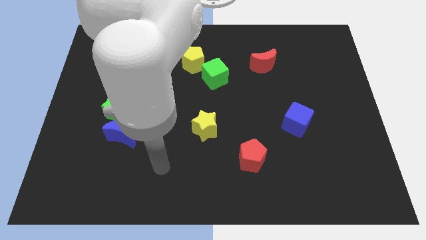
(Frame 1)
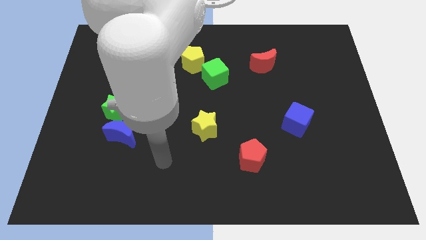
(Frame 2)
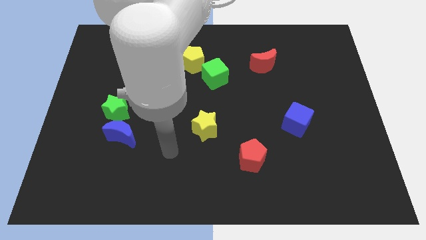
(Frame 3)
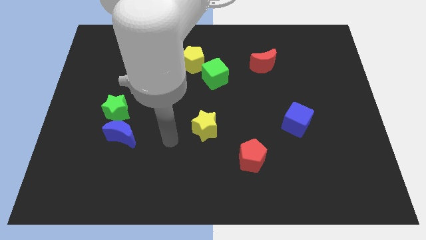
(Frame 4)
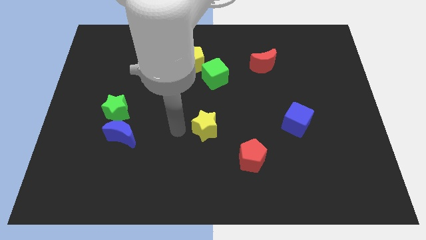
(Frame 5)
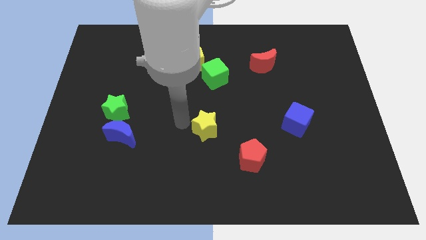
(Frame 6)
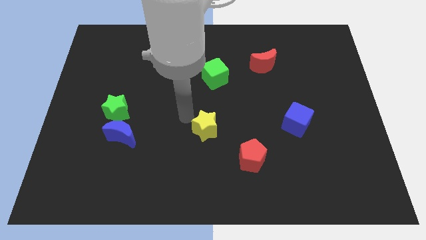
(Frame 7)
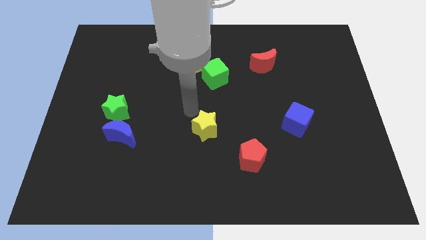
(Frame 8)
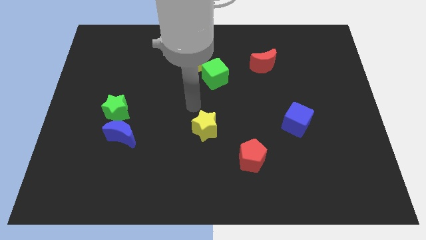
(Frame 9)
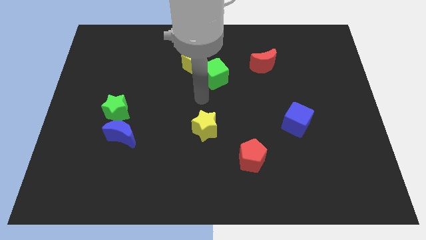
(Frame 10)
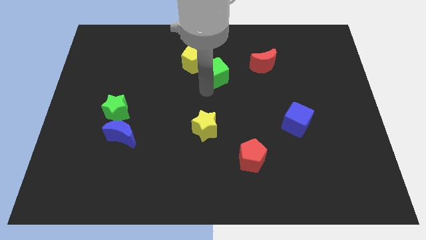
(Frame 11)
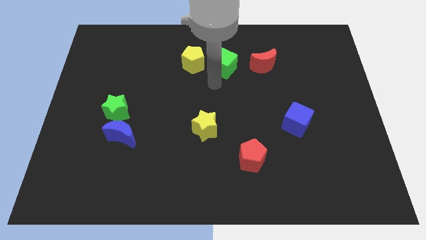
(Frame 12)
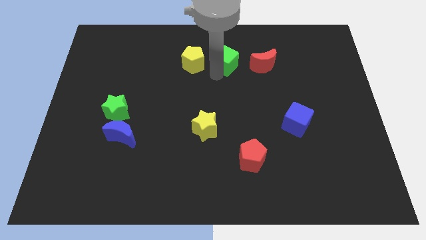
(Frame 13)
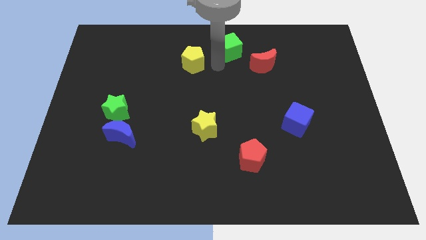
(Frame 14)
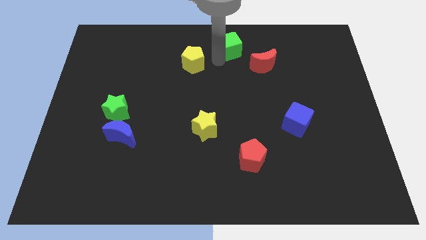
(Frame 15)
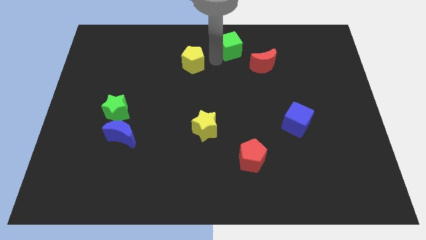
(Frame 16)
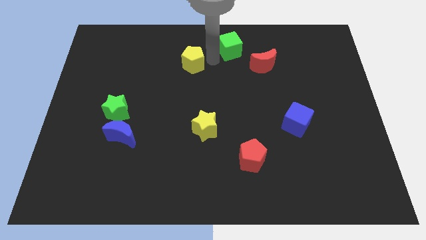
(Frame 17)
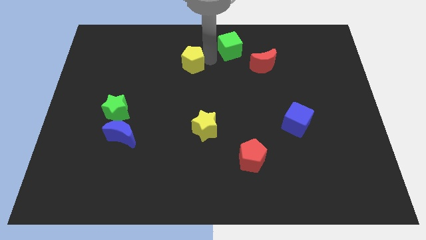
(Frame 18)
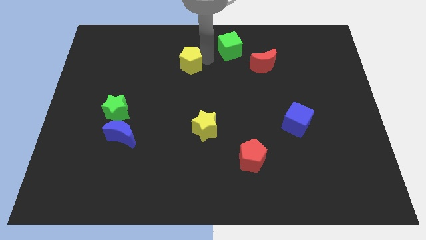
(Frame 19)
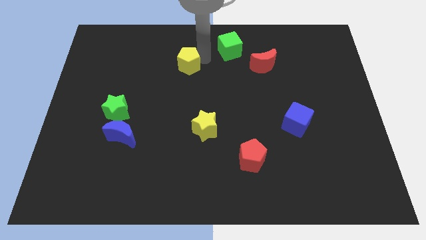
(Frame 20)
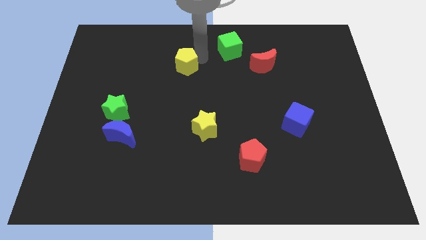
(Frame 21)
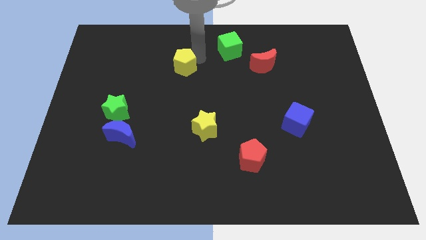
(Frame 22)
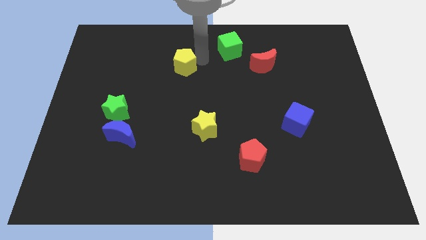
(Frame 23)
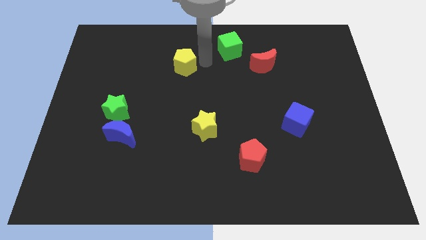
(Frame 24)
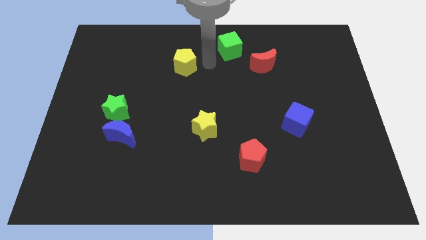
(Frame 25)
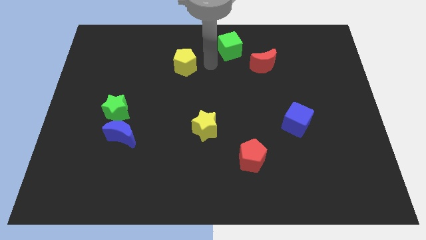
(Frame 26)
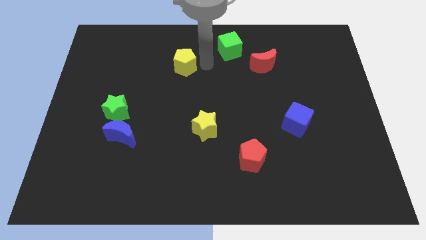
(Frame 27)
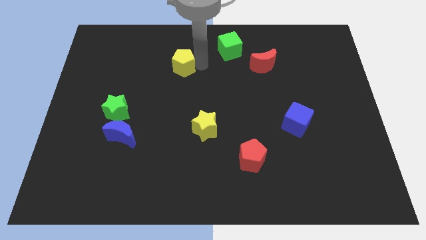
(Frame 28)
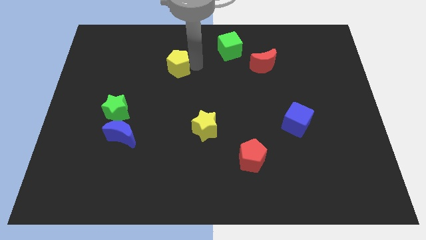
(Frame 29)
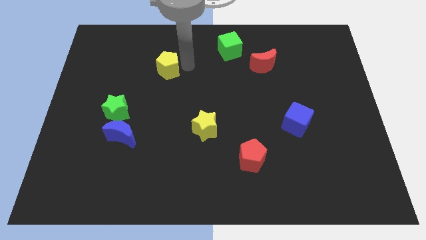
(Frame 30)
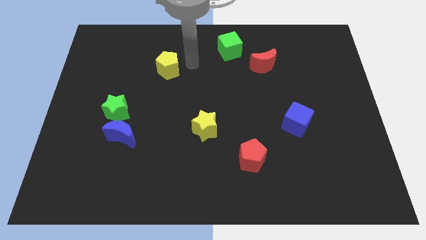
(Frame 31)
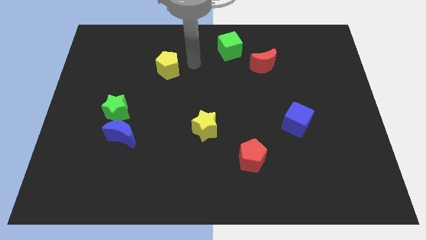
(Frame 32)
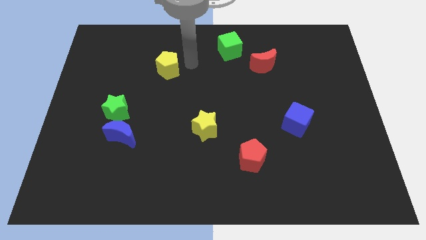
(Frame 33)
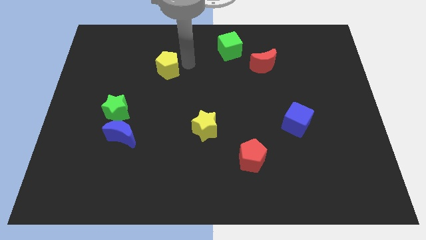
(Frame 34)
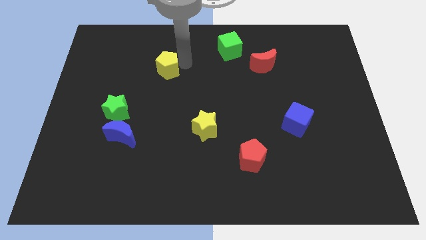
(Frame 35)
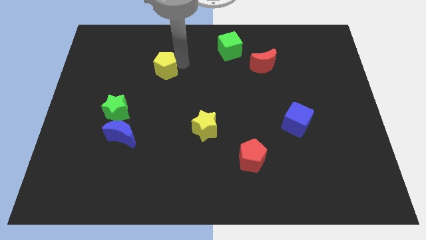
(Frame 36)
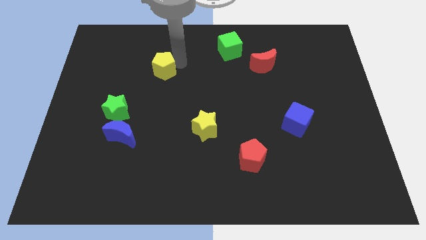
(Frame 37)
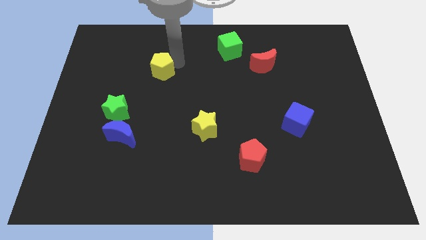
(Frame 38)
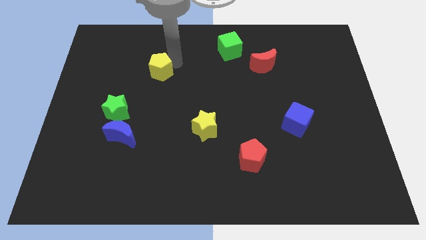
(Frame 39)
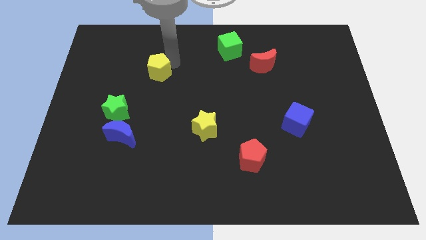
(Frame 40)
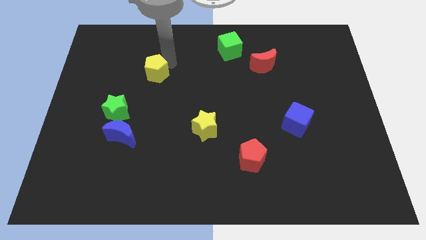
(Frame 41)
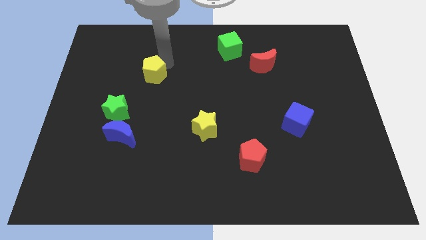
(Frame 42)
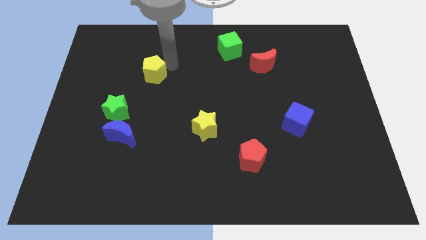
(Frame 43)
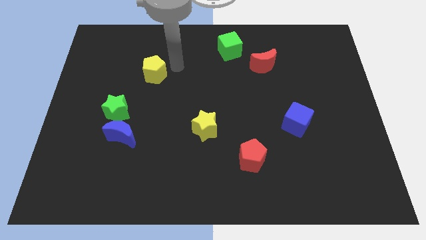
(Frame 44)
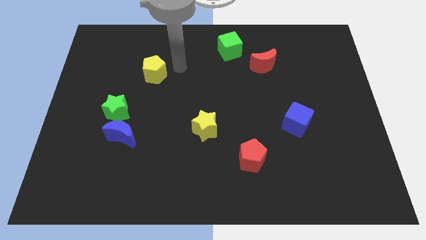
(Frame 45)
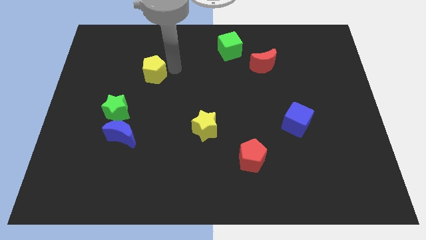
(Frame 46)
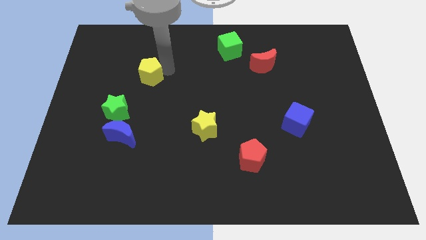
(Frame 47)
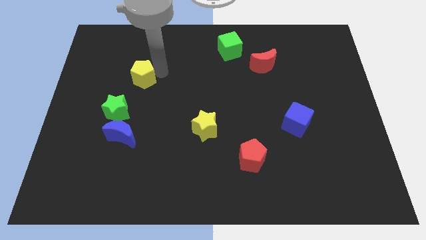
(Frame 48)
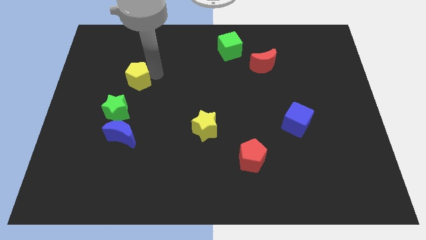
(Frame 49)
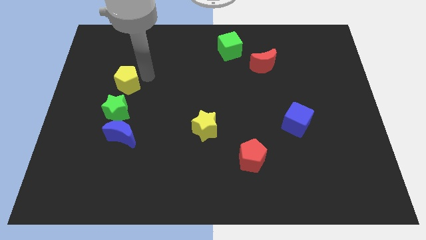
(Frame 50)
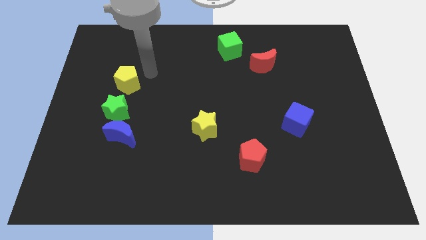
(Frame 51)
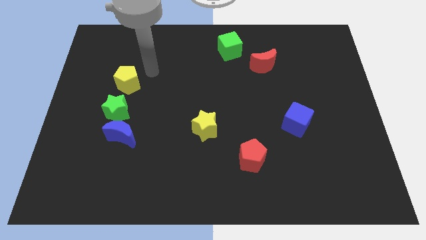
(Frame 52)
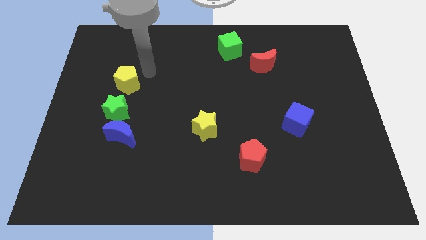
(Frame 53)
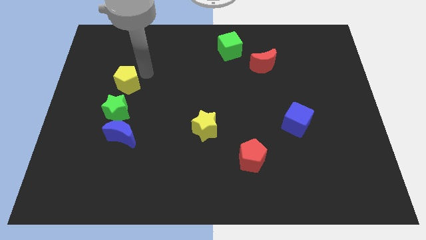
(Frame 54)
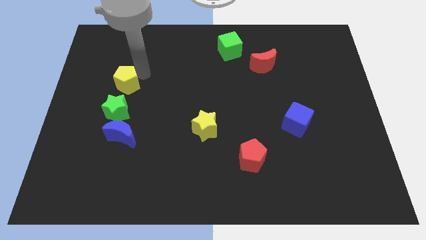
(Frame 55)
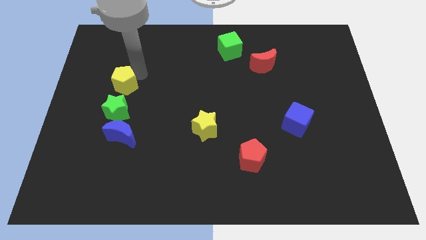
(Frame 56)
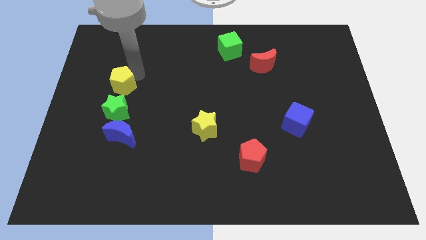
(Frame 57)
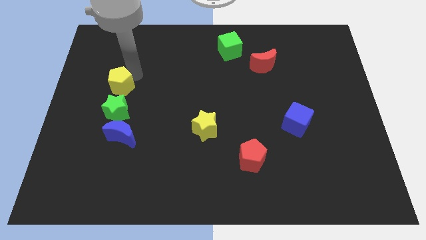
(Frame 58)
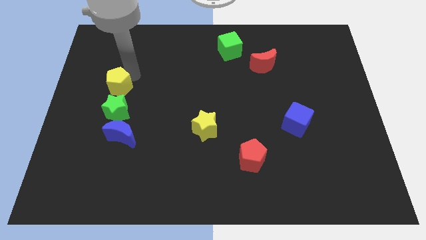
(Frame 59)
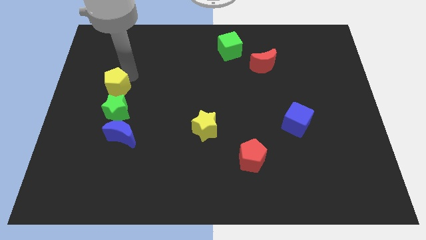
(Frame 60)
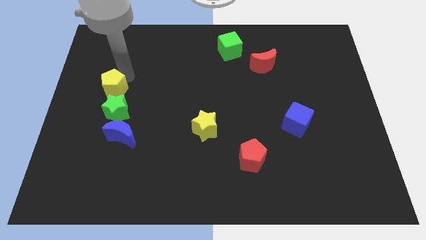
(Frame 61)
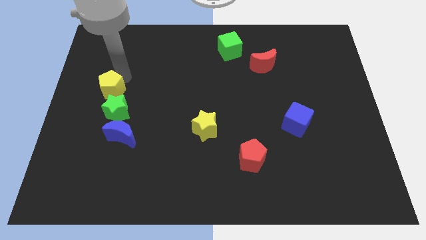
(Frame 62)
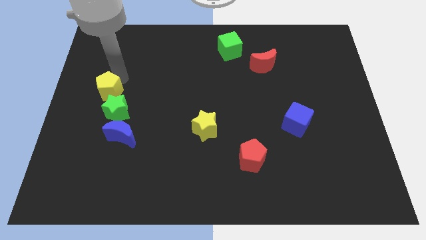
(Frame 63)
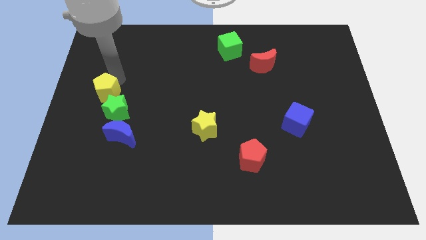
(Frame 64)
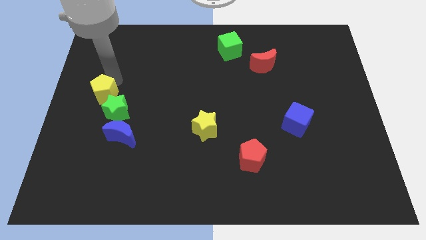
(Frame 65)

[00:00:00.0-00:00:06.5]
slide the yellow pentagon down and to the left diagonally

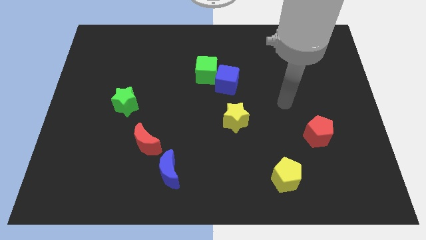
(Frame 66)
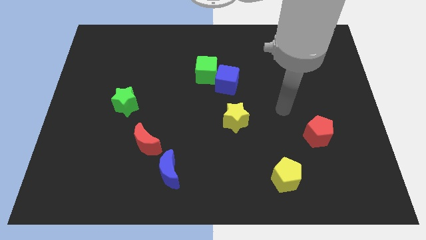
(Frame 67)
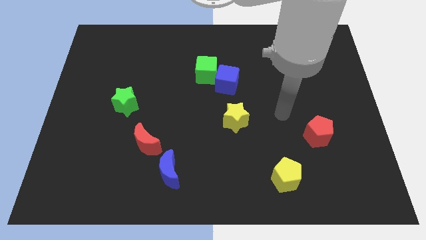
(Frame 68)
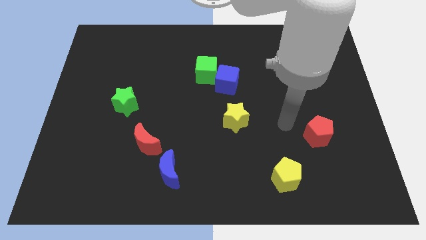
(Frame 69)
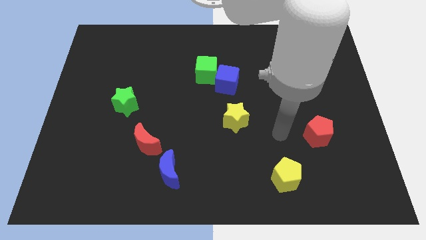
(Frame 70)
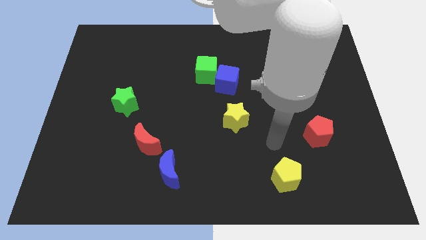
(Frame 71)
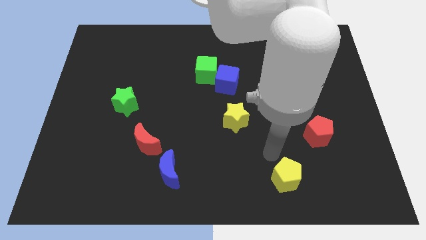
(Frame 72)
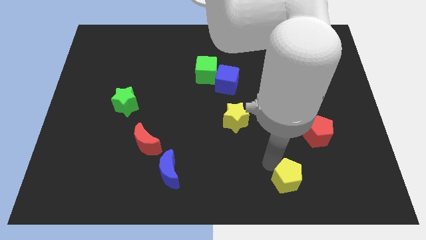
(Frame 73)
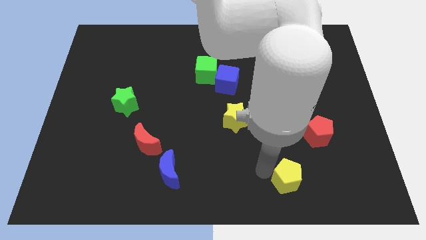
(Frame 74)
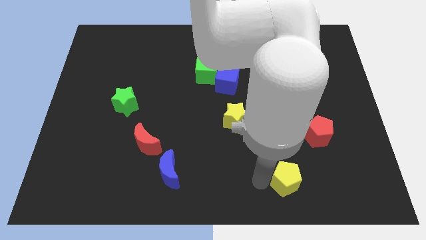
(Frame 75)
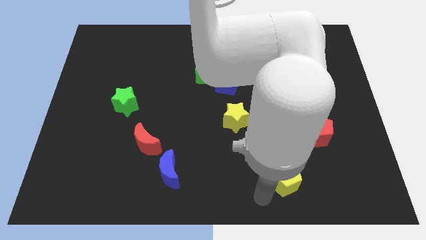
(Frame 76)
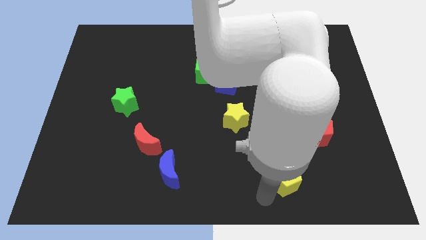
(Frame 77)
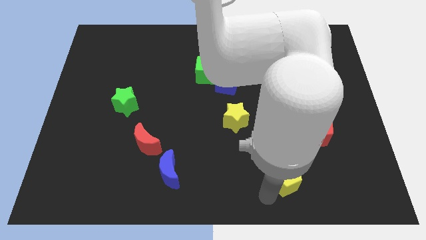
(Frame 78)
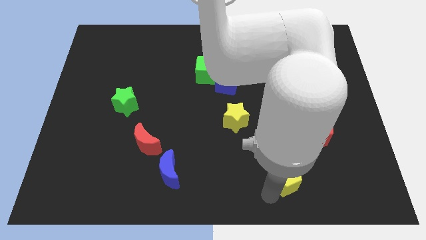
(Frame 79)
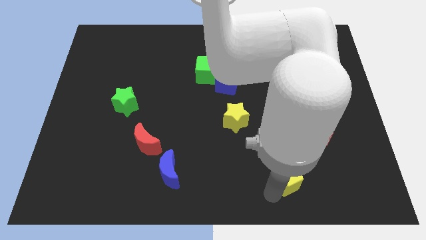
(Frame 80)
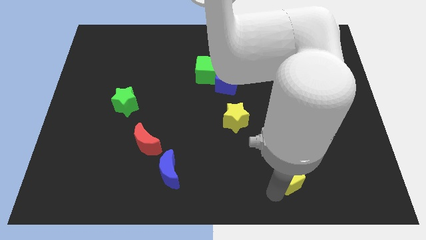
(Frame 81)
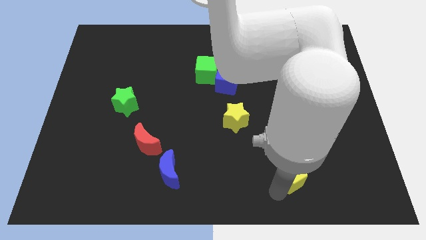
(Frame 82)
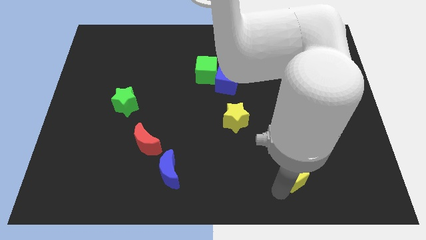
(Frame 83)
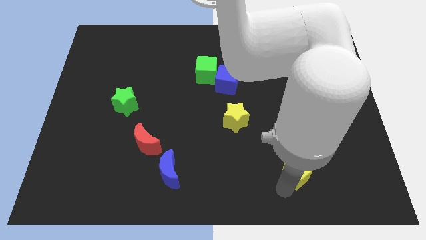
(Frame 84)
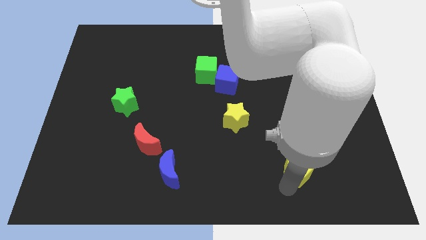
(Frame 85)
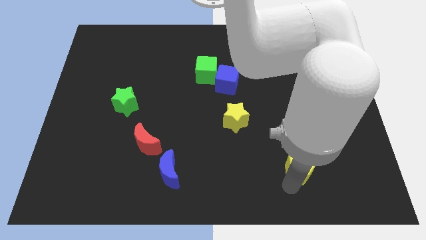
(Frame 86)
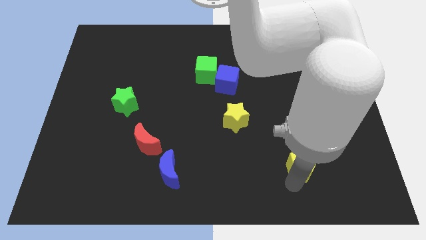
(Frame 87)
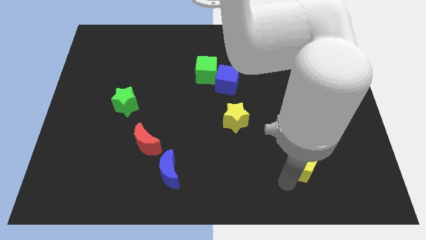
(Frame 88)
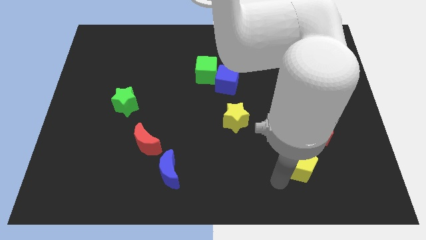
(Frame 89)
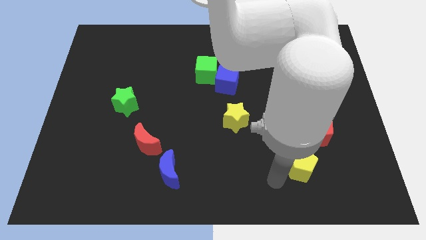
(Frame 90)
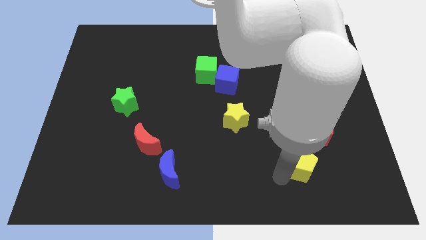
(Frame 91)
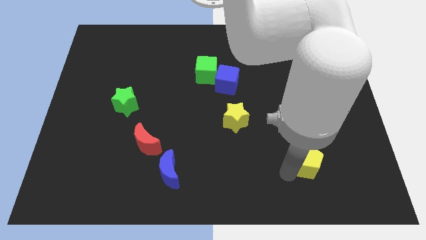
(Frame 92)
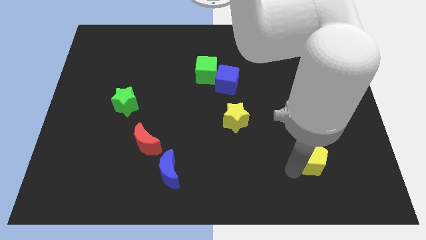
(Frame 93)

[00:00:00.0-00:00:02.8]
push the yellow pentagon up and then right somewhat
